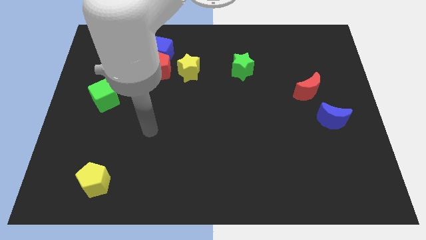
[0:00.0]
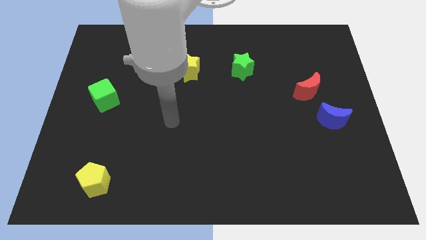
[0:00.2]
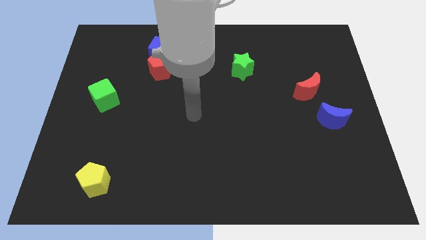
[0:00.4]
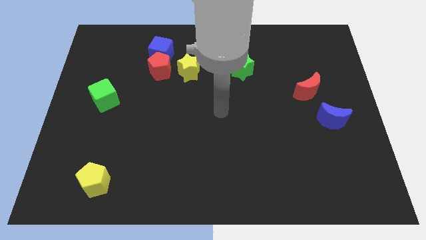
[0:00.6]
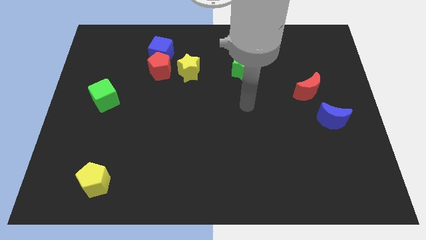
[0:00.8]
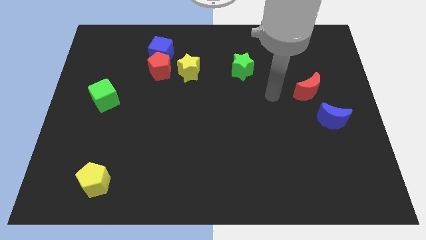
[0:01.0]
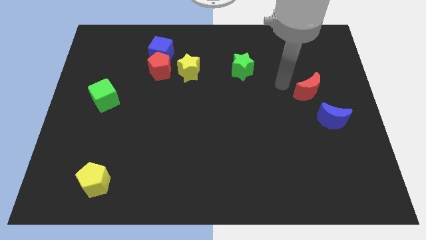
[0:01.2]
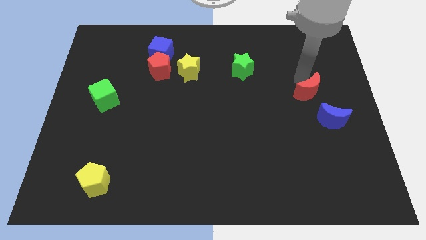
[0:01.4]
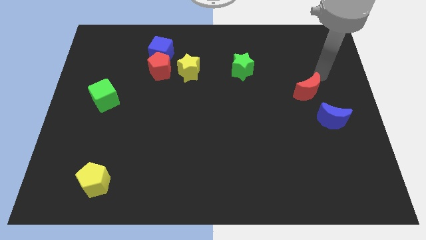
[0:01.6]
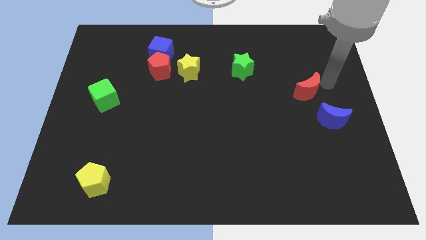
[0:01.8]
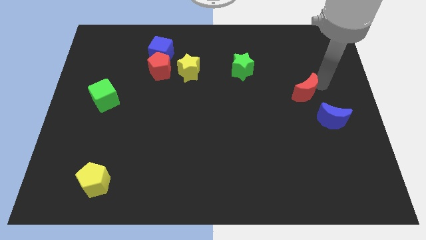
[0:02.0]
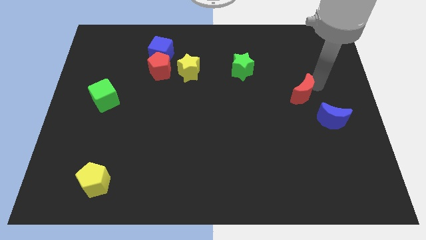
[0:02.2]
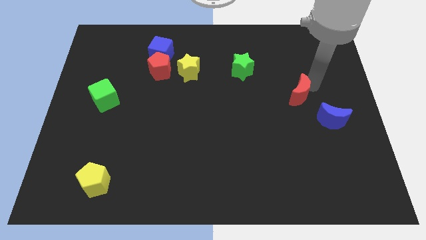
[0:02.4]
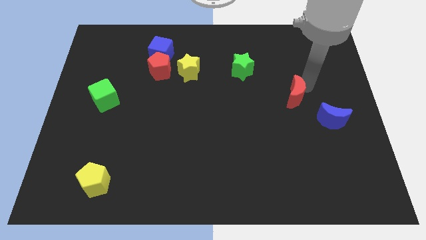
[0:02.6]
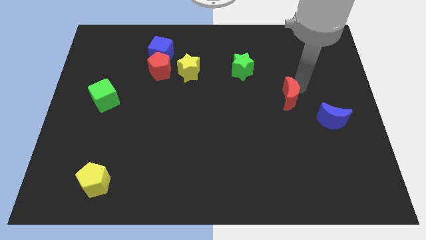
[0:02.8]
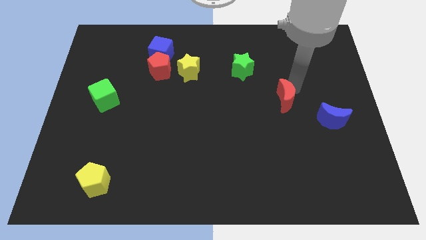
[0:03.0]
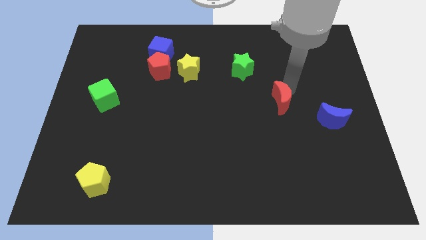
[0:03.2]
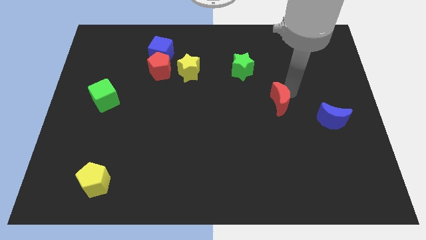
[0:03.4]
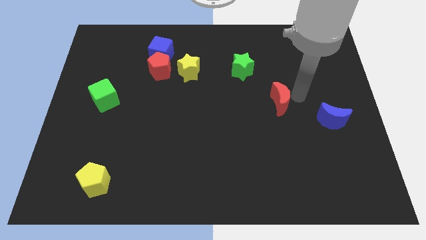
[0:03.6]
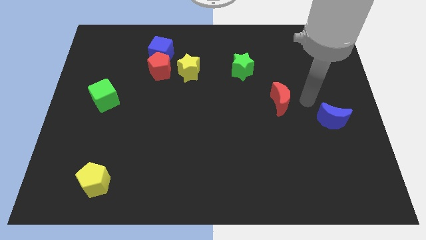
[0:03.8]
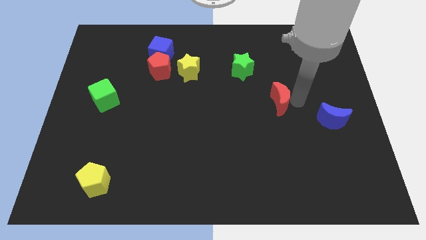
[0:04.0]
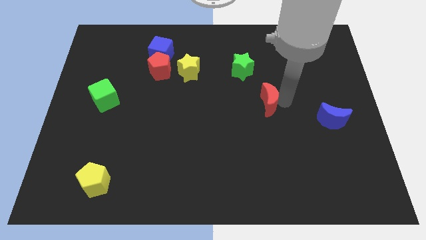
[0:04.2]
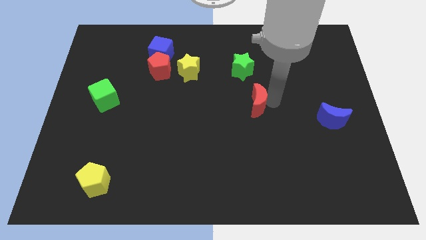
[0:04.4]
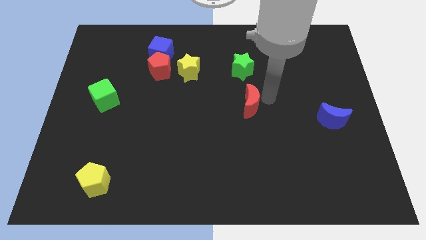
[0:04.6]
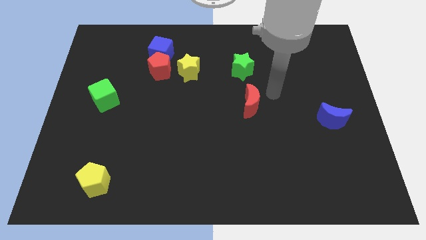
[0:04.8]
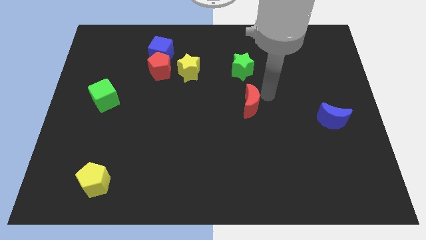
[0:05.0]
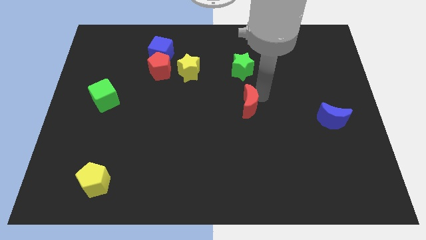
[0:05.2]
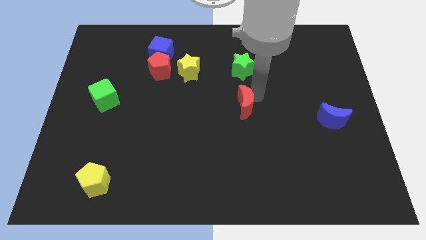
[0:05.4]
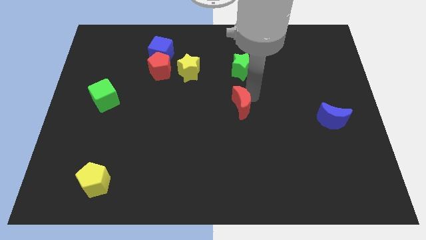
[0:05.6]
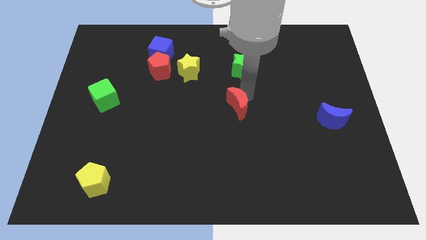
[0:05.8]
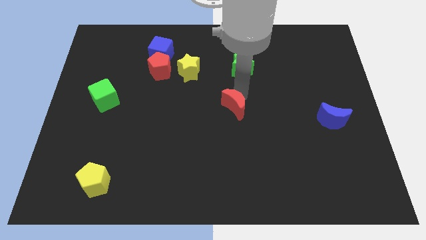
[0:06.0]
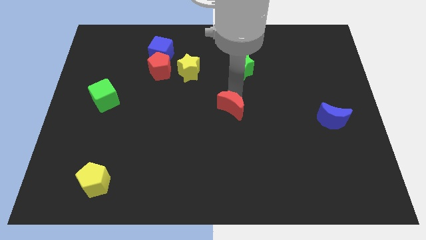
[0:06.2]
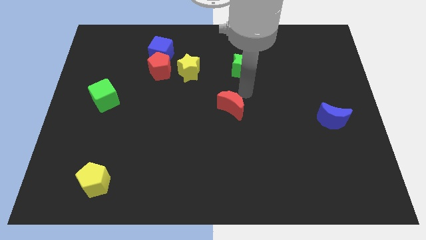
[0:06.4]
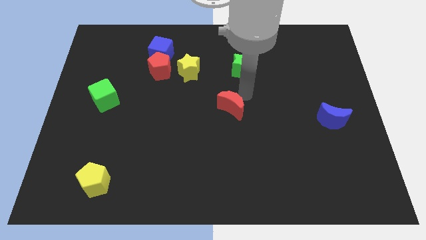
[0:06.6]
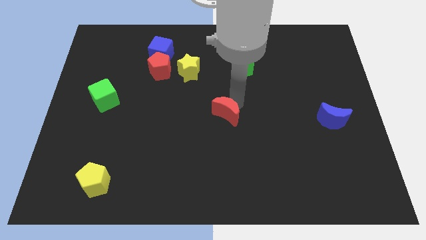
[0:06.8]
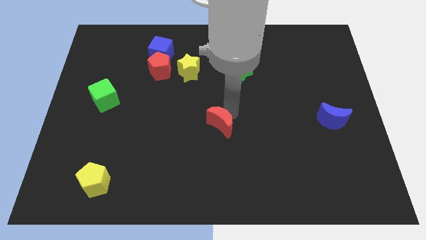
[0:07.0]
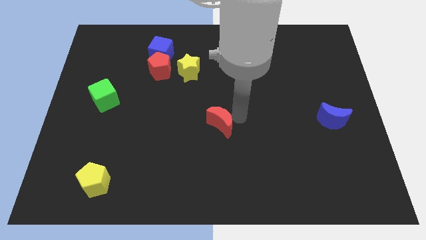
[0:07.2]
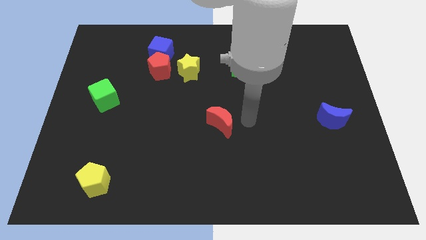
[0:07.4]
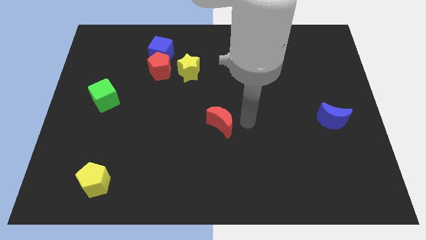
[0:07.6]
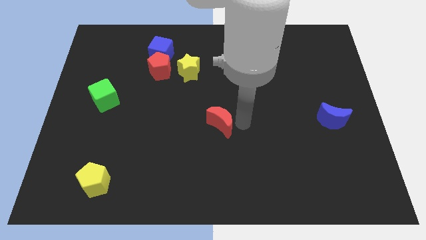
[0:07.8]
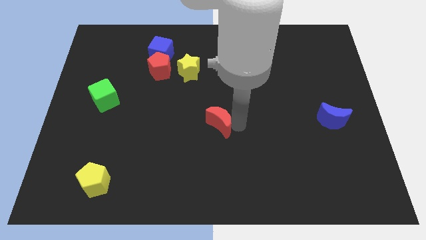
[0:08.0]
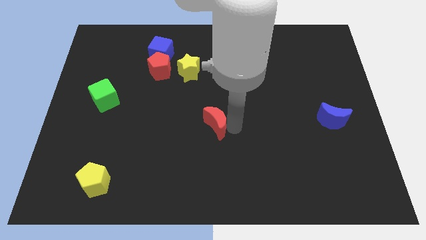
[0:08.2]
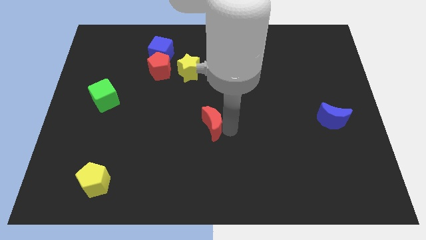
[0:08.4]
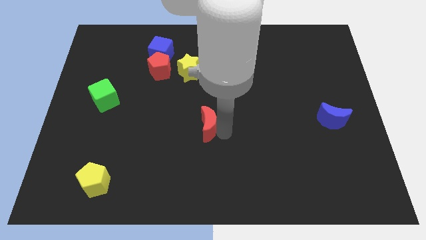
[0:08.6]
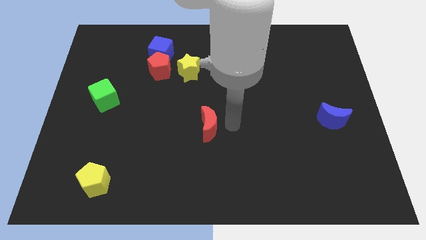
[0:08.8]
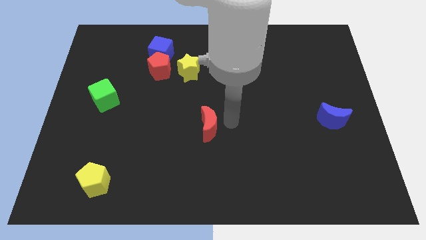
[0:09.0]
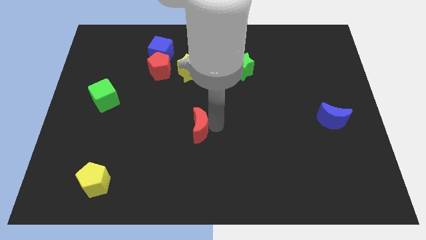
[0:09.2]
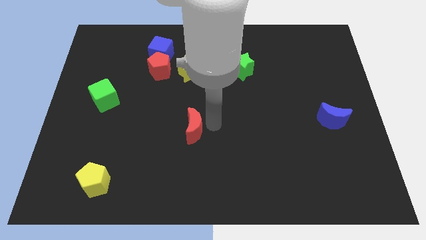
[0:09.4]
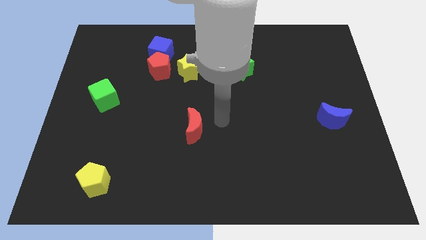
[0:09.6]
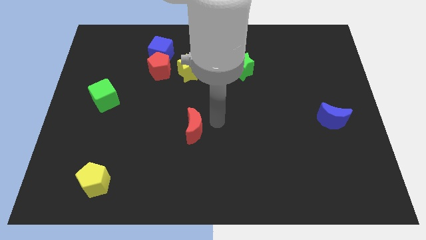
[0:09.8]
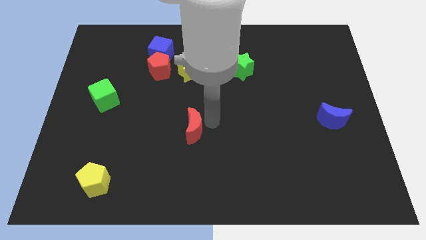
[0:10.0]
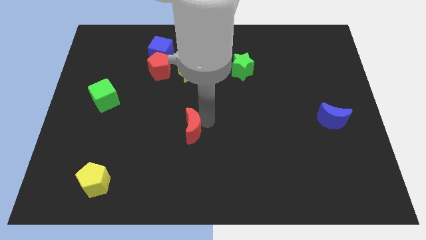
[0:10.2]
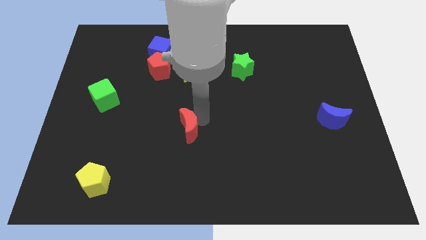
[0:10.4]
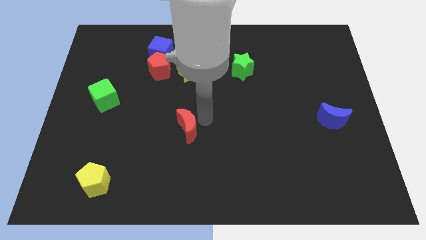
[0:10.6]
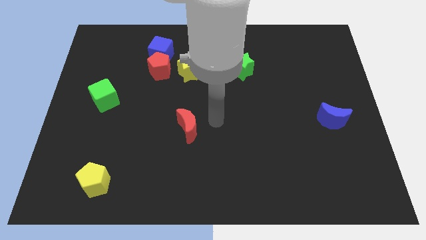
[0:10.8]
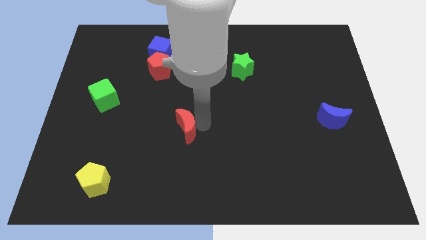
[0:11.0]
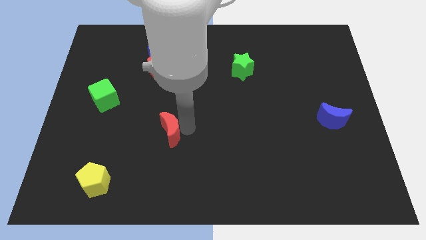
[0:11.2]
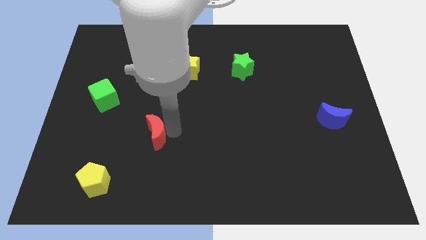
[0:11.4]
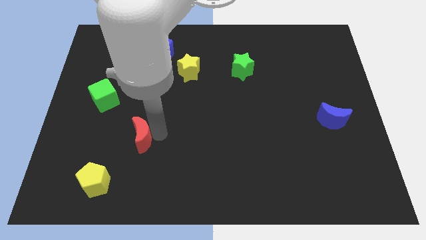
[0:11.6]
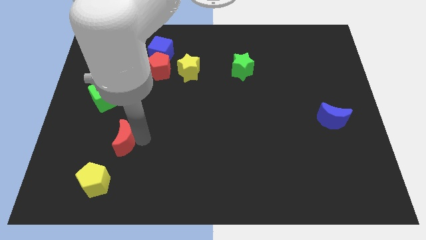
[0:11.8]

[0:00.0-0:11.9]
move the red moon to the top side of the yellow pentagon

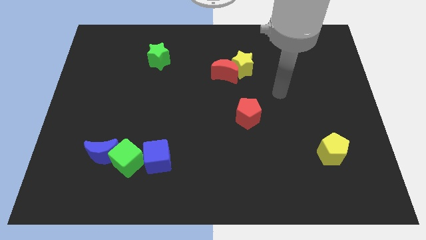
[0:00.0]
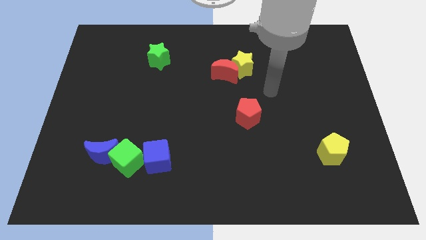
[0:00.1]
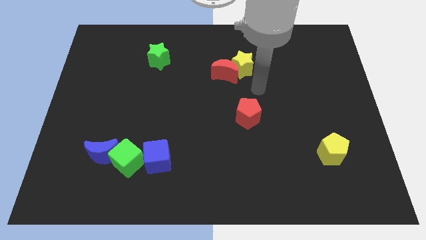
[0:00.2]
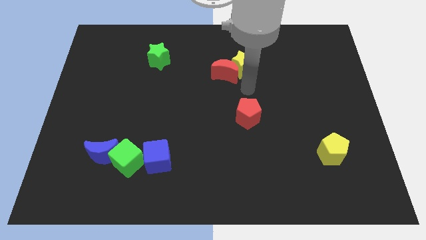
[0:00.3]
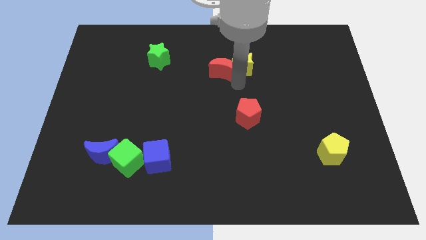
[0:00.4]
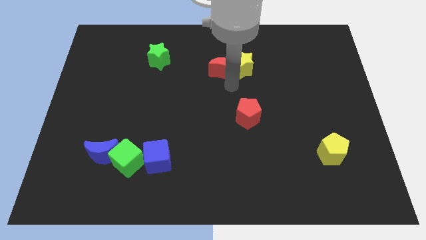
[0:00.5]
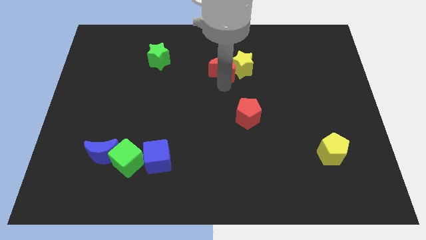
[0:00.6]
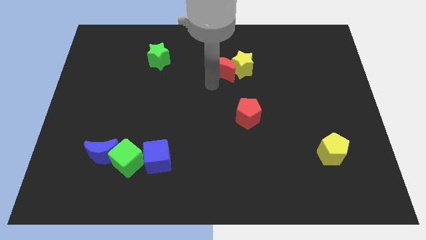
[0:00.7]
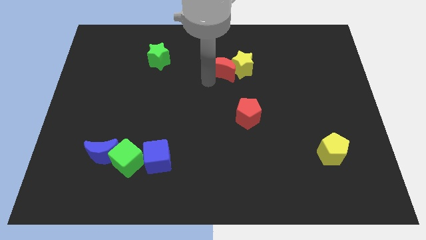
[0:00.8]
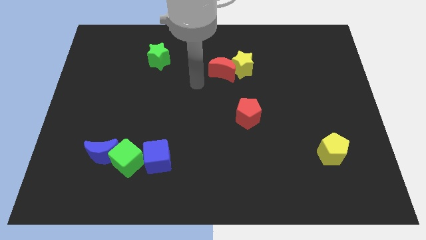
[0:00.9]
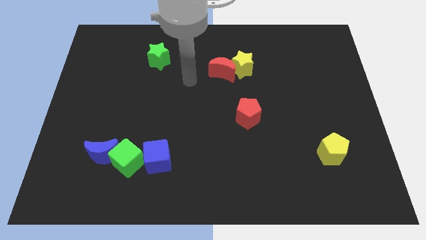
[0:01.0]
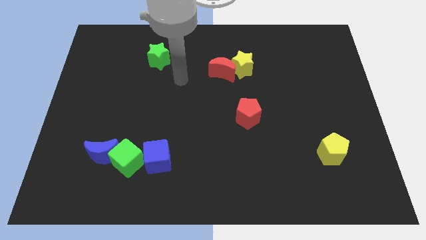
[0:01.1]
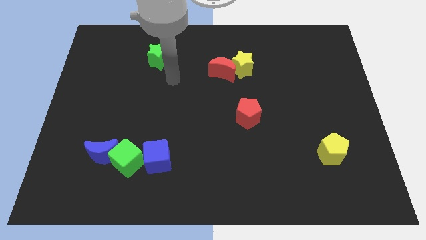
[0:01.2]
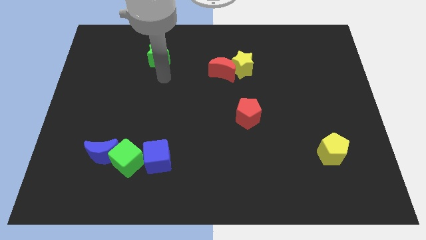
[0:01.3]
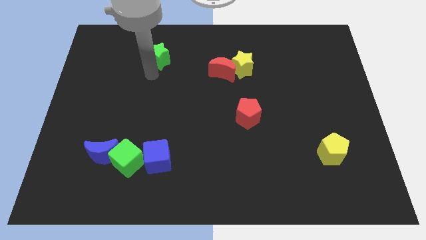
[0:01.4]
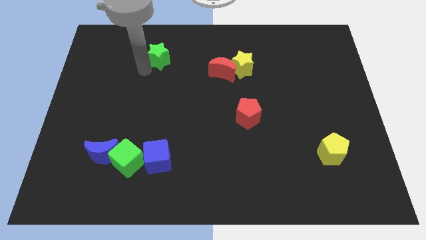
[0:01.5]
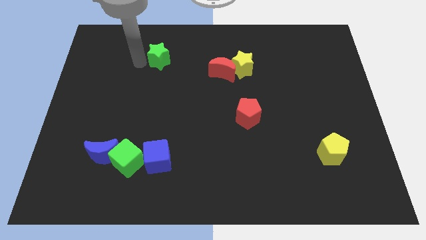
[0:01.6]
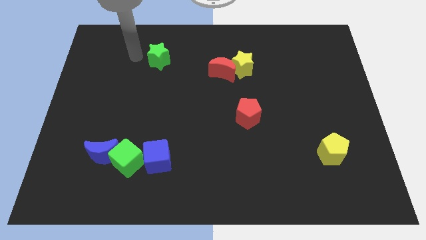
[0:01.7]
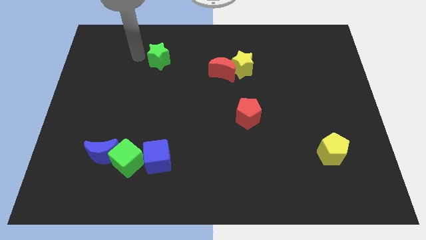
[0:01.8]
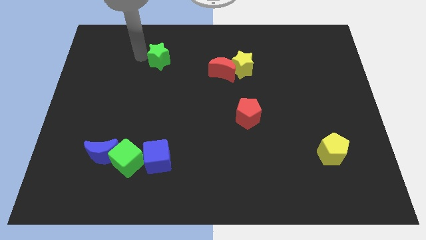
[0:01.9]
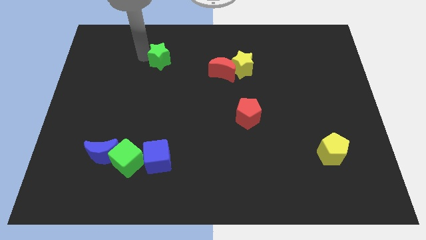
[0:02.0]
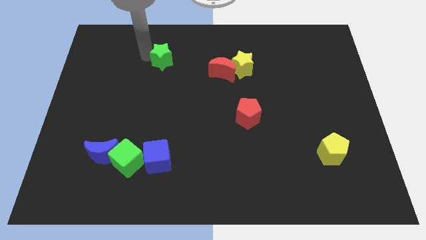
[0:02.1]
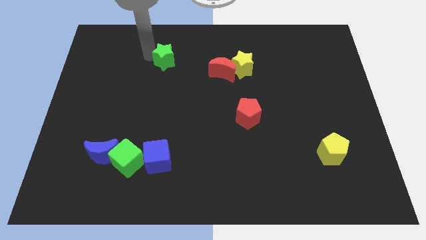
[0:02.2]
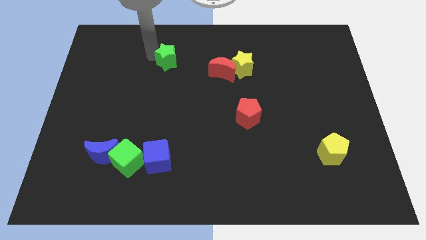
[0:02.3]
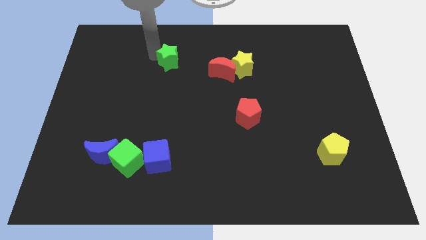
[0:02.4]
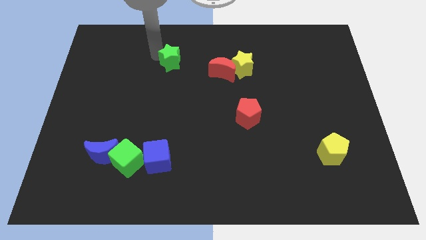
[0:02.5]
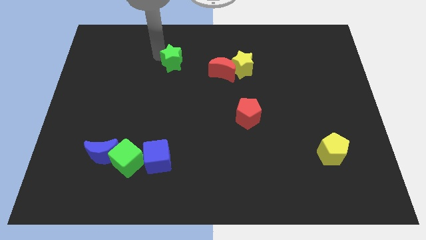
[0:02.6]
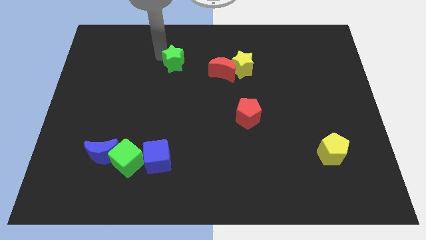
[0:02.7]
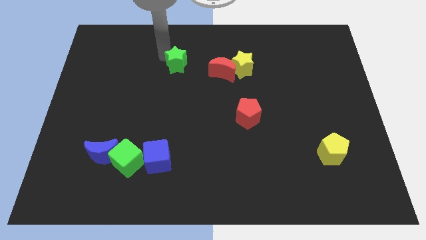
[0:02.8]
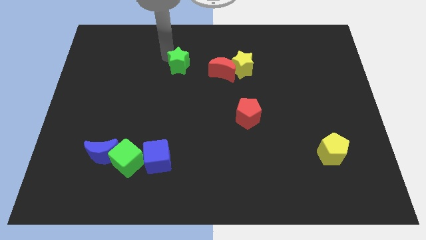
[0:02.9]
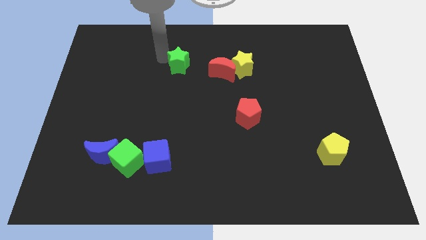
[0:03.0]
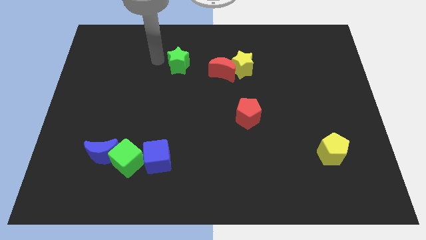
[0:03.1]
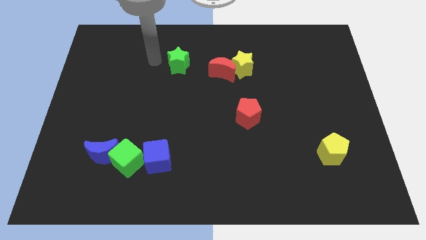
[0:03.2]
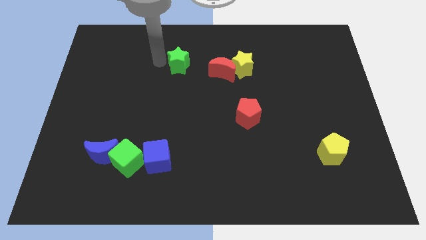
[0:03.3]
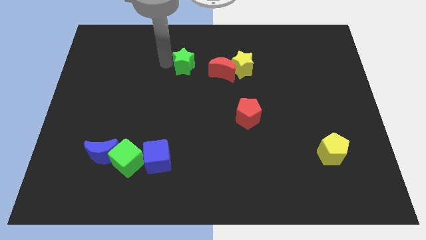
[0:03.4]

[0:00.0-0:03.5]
put the green star just left of the yellow star
